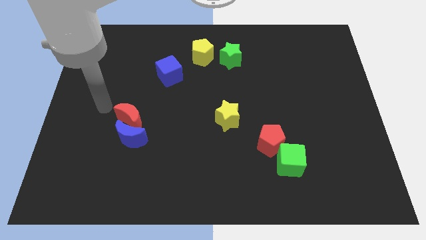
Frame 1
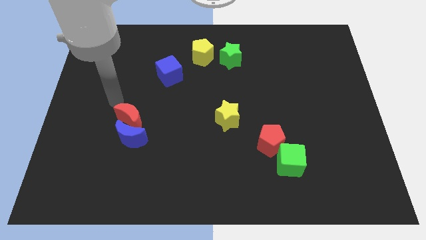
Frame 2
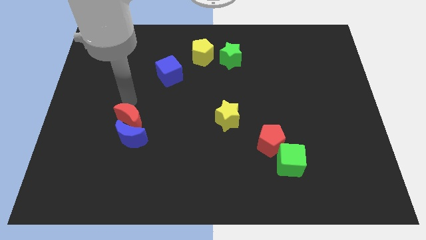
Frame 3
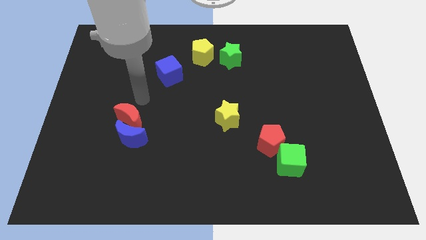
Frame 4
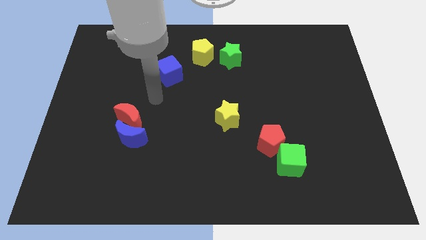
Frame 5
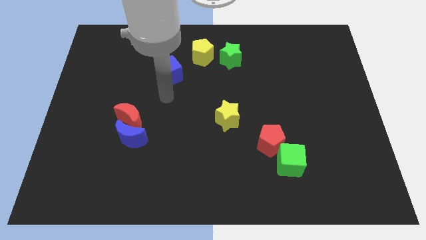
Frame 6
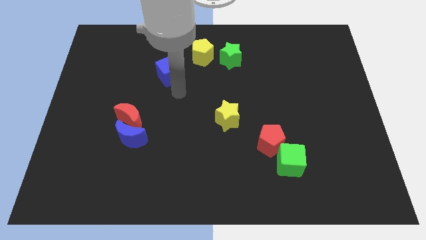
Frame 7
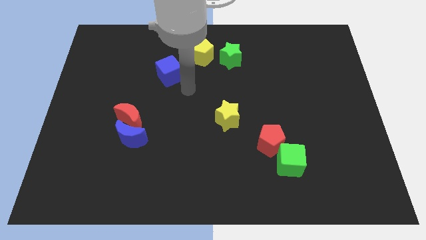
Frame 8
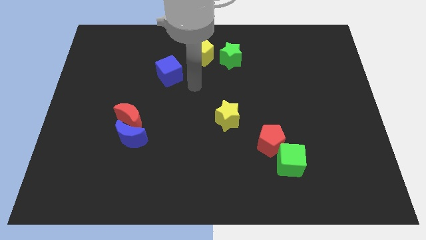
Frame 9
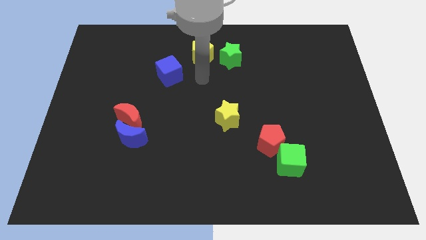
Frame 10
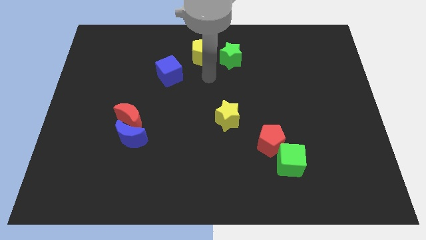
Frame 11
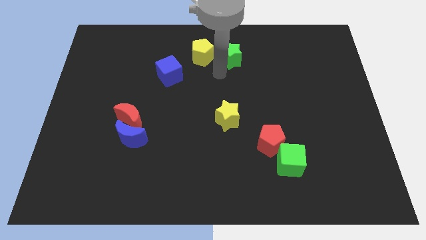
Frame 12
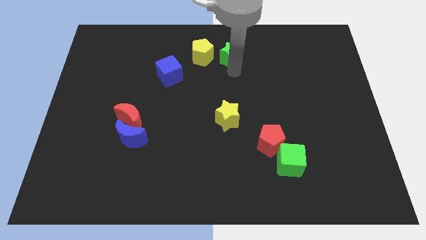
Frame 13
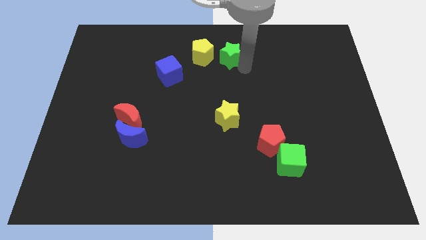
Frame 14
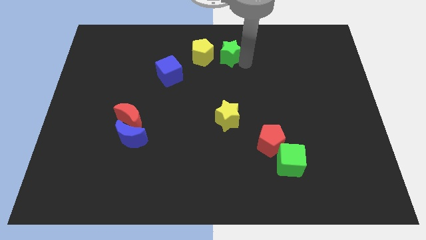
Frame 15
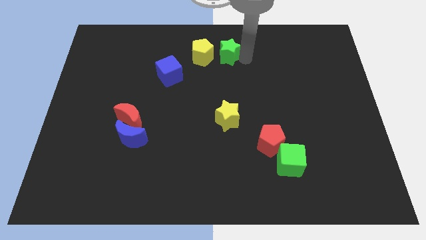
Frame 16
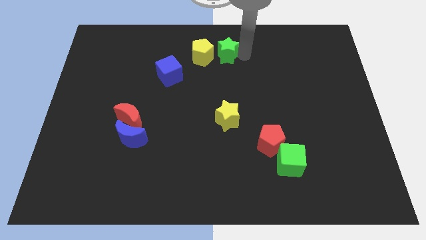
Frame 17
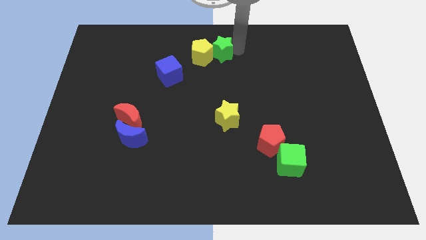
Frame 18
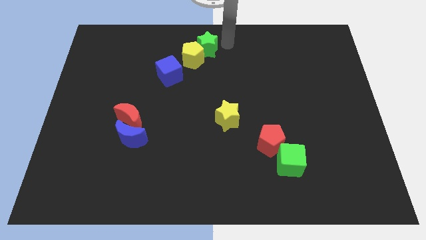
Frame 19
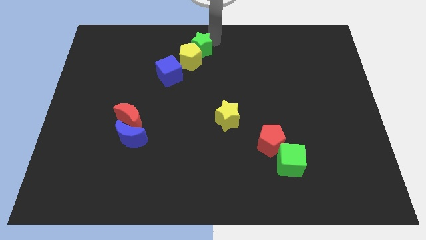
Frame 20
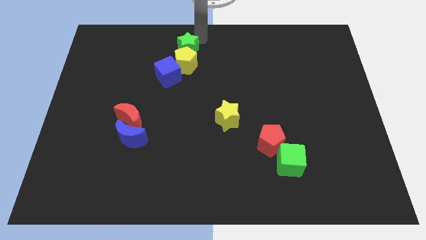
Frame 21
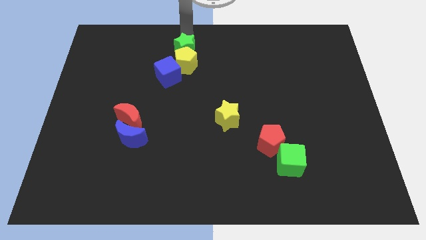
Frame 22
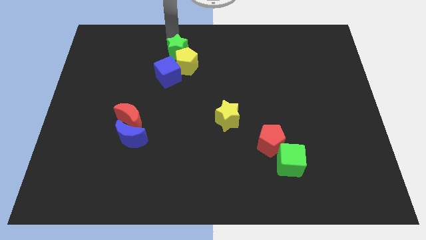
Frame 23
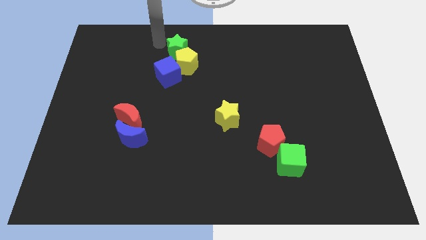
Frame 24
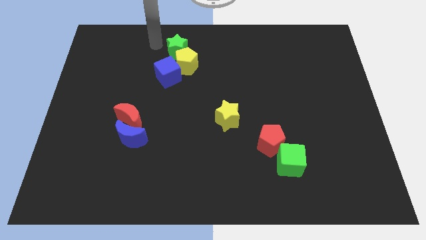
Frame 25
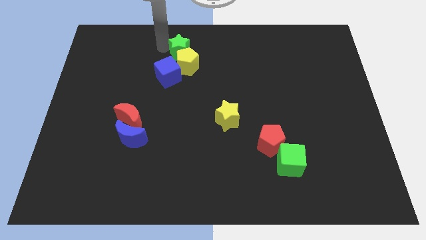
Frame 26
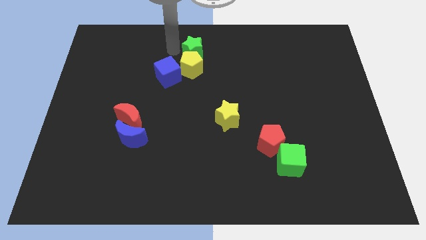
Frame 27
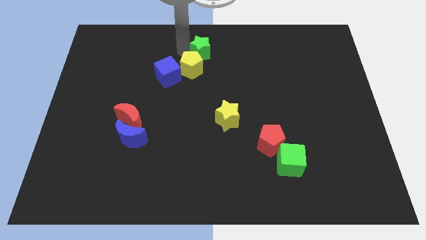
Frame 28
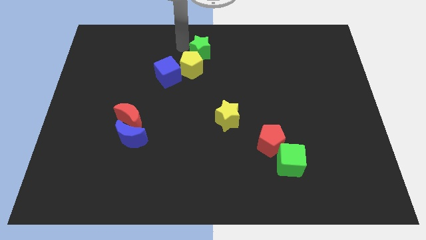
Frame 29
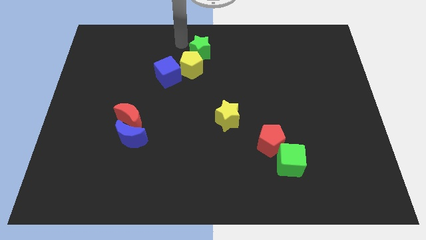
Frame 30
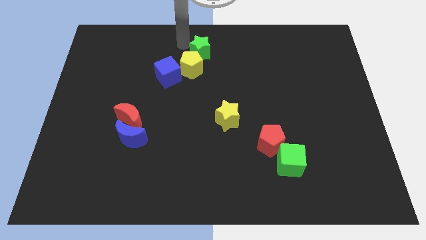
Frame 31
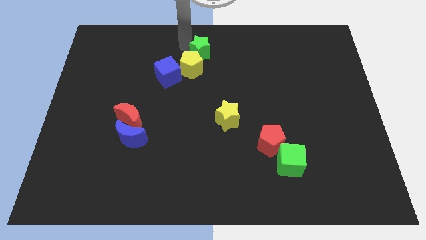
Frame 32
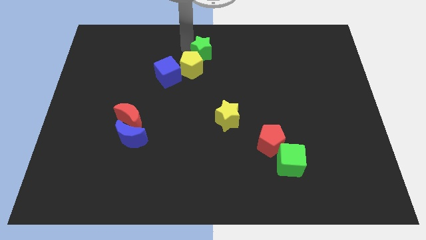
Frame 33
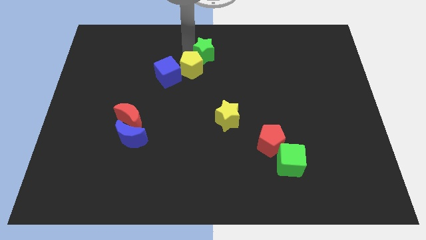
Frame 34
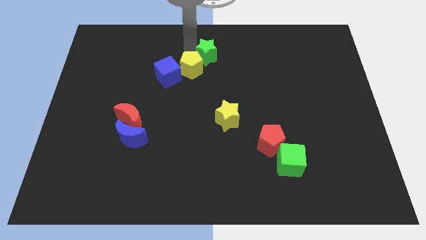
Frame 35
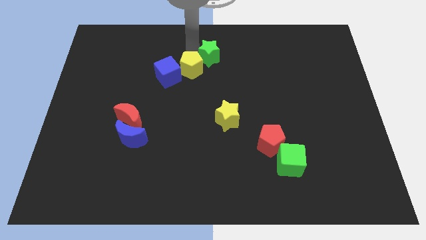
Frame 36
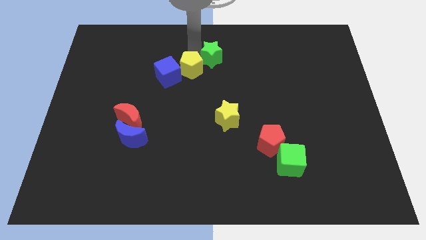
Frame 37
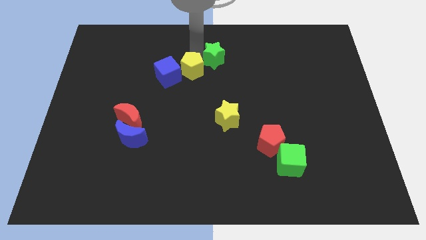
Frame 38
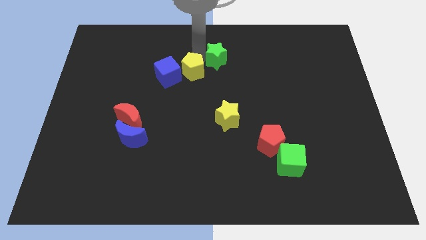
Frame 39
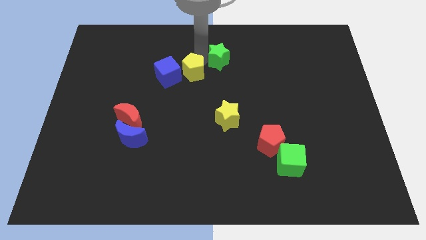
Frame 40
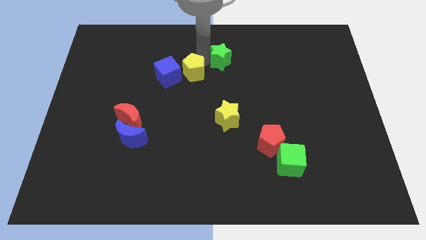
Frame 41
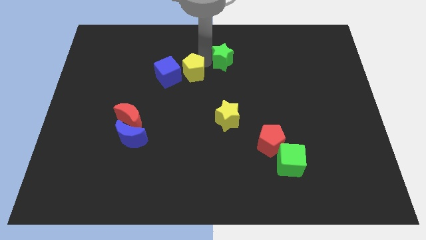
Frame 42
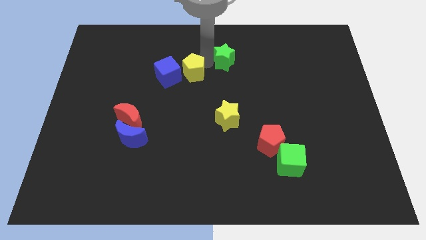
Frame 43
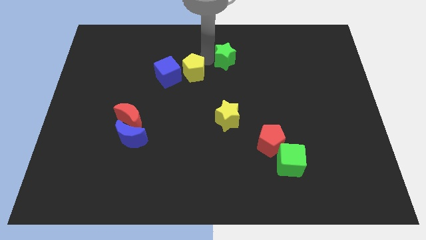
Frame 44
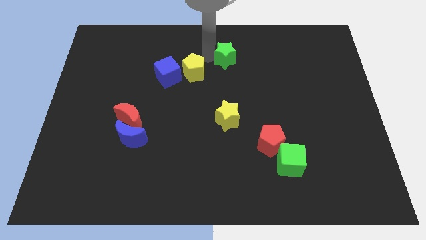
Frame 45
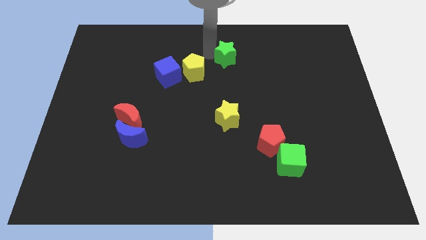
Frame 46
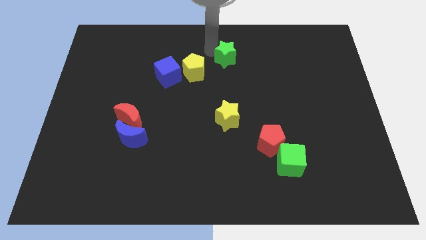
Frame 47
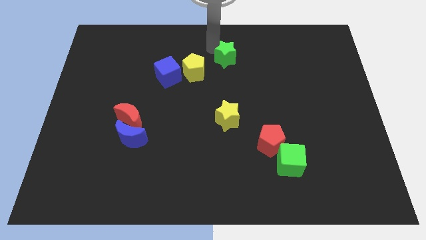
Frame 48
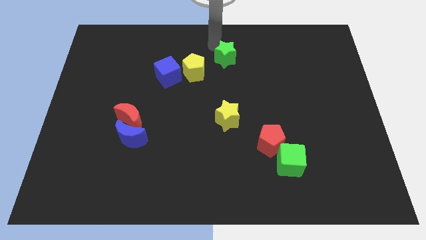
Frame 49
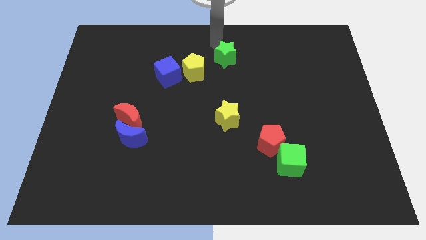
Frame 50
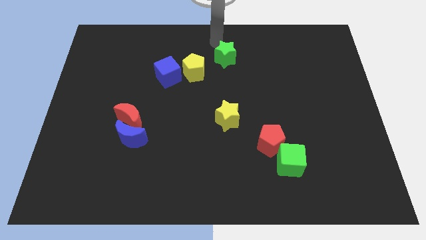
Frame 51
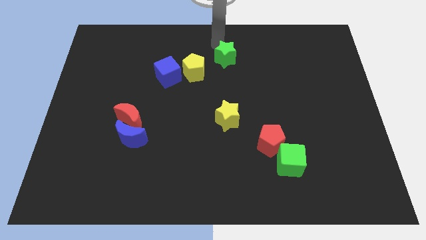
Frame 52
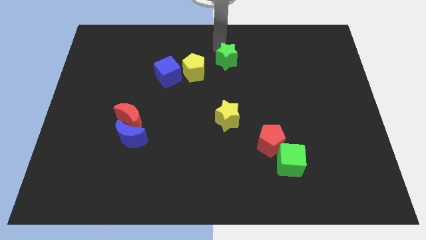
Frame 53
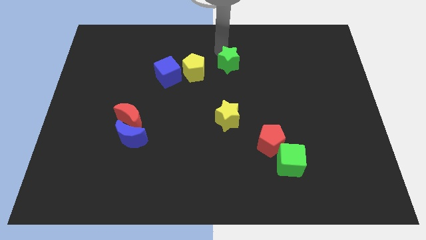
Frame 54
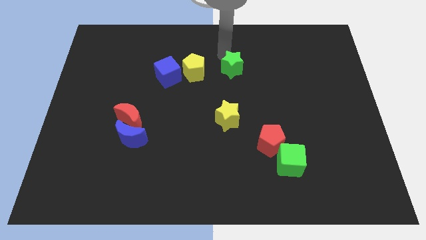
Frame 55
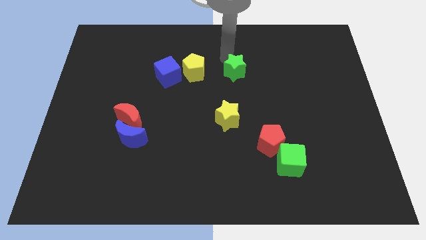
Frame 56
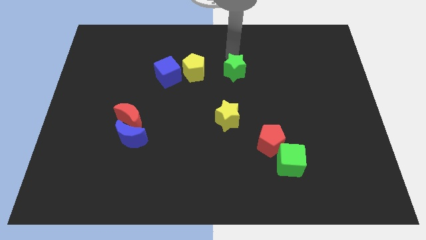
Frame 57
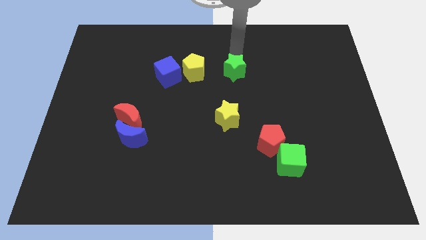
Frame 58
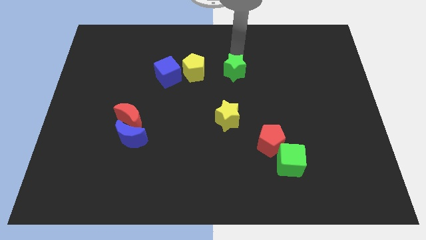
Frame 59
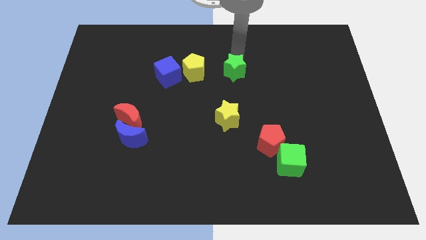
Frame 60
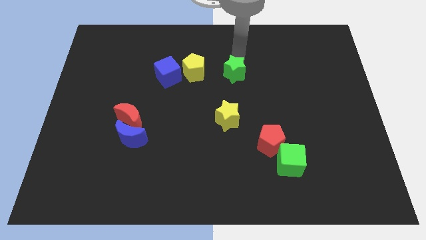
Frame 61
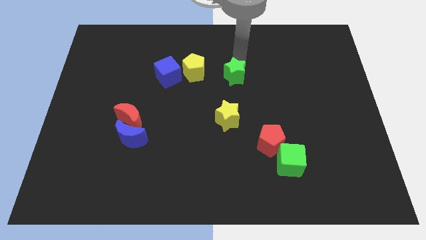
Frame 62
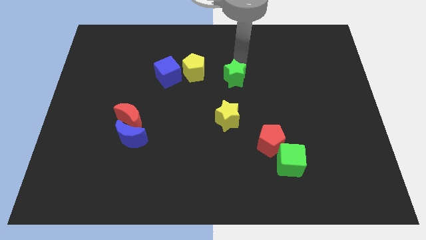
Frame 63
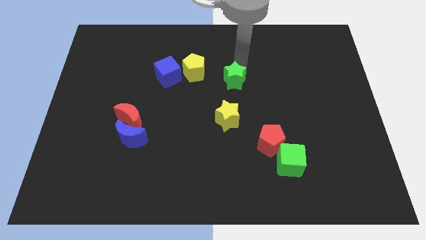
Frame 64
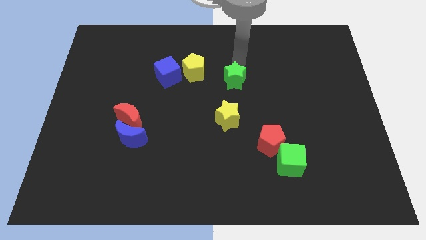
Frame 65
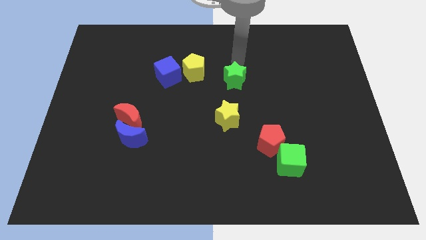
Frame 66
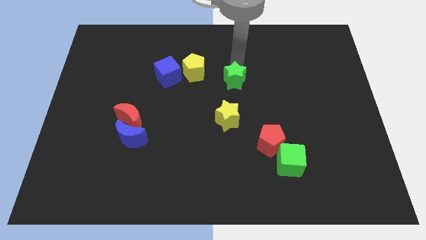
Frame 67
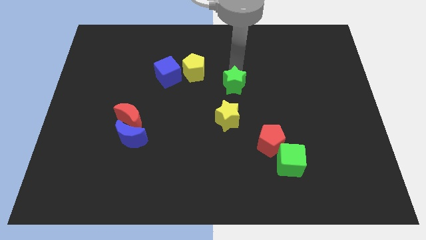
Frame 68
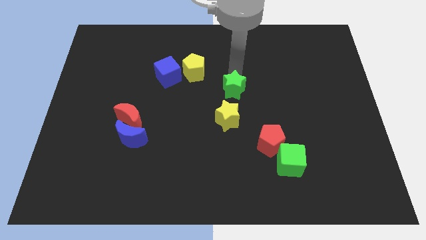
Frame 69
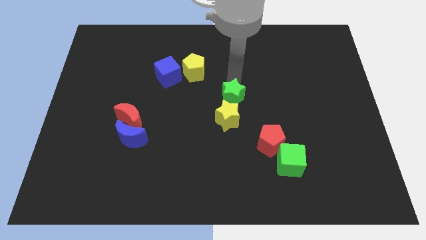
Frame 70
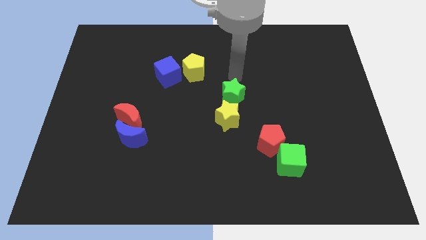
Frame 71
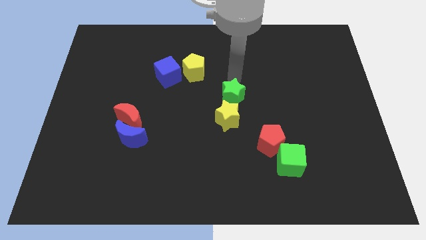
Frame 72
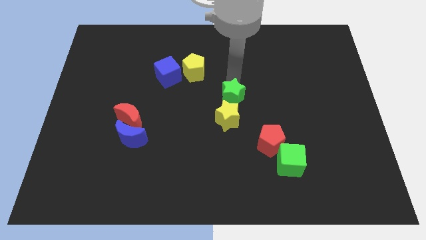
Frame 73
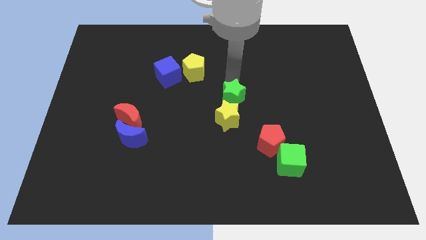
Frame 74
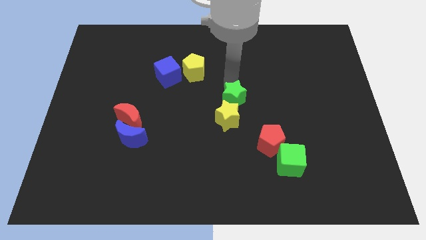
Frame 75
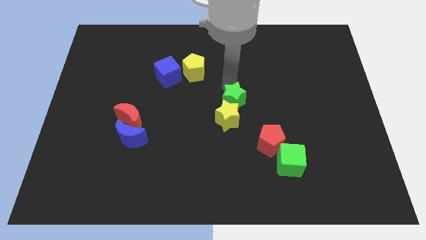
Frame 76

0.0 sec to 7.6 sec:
slide the green star to the yellow star
